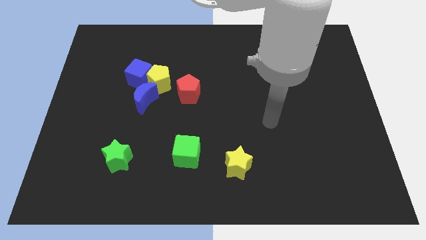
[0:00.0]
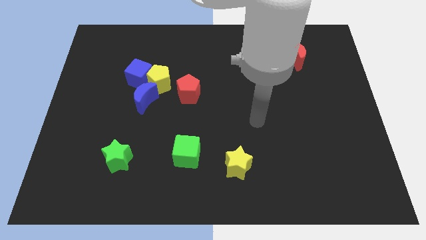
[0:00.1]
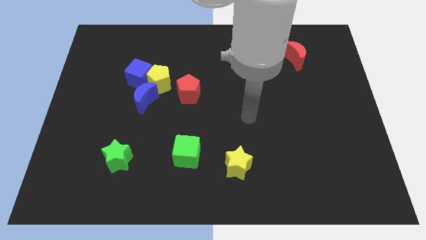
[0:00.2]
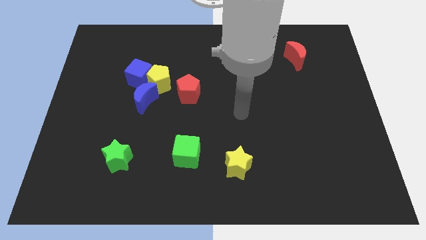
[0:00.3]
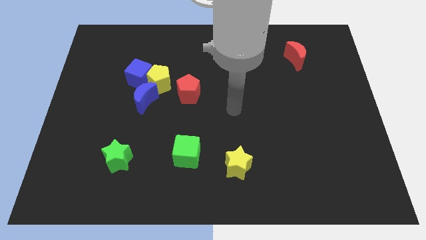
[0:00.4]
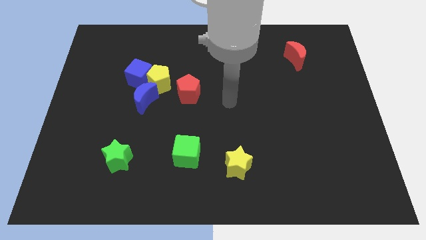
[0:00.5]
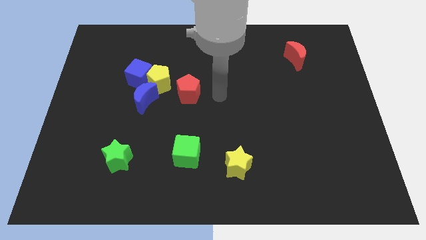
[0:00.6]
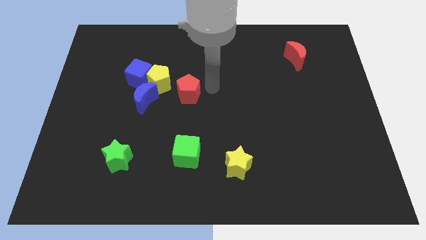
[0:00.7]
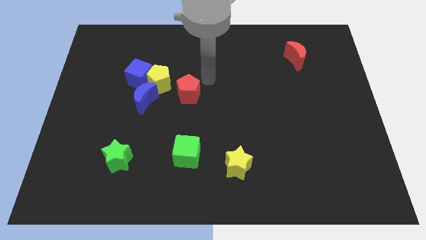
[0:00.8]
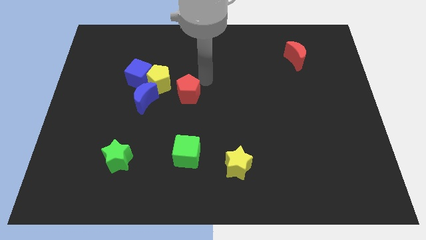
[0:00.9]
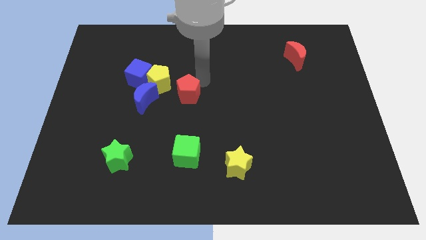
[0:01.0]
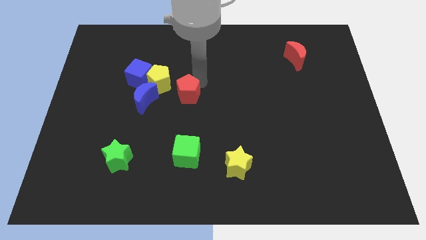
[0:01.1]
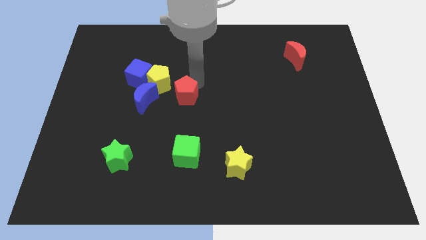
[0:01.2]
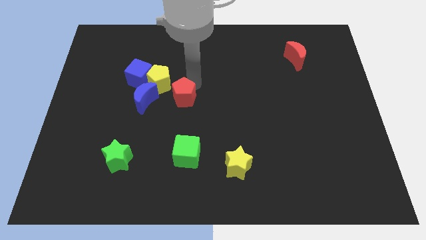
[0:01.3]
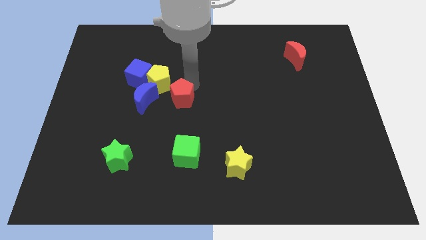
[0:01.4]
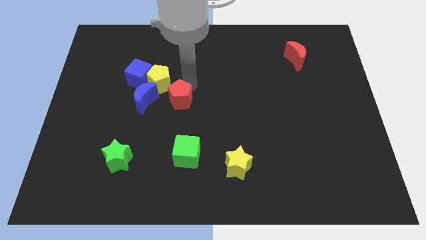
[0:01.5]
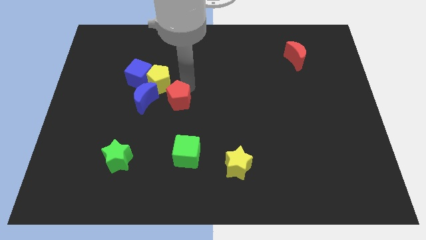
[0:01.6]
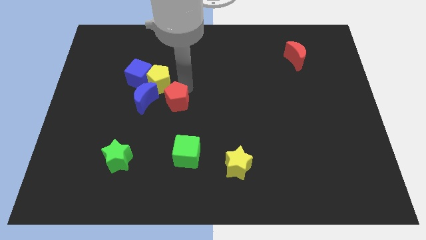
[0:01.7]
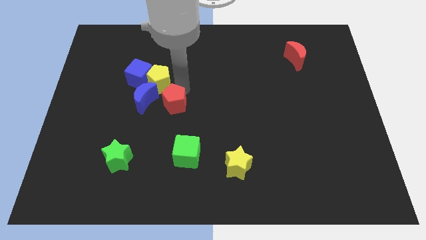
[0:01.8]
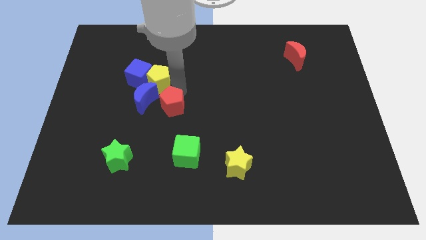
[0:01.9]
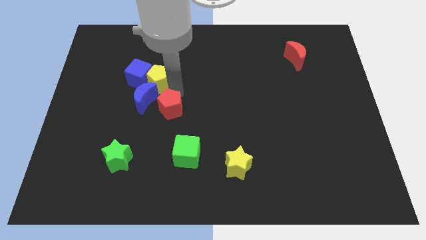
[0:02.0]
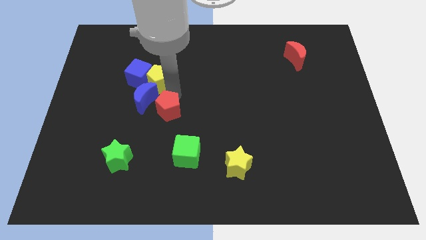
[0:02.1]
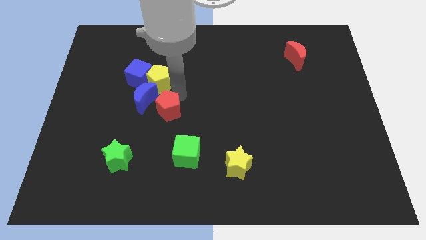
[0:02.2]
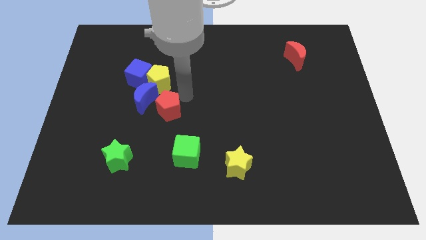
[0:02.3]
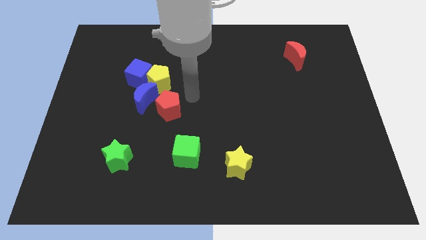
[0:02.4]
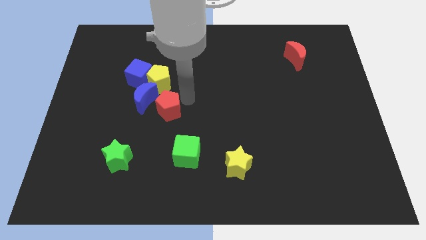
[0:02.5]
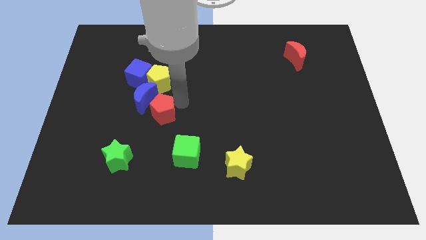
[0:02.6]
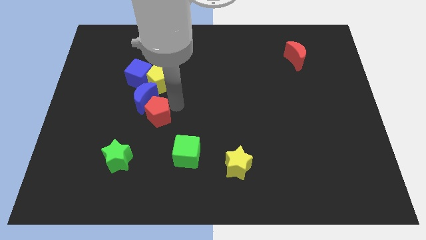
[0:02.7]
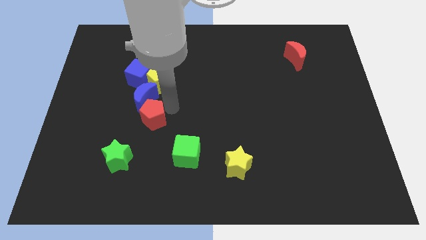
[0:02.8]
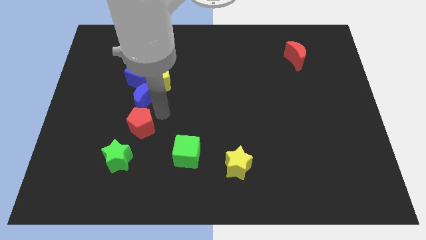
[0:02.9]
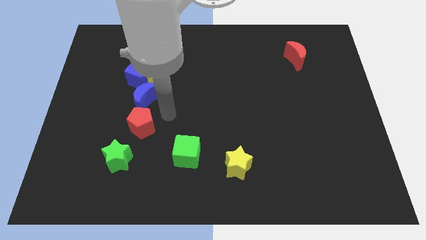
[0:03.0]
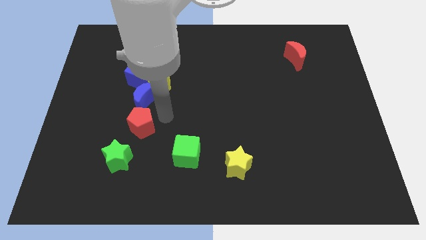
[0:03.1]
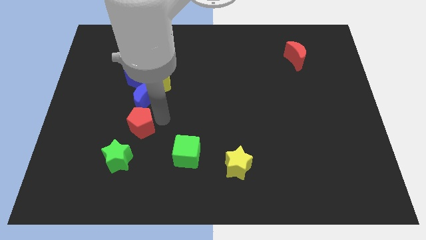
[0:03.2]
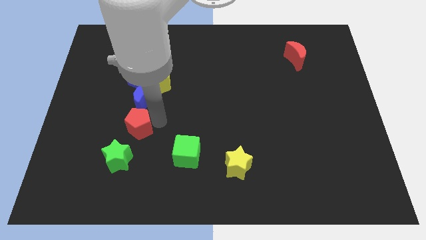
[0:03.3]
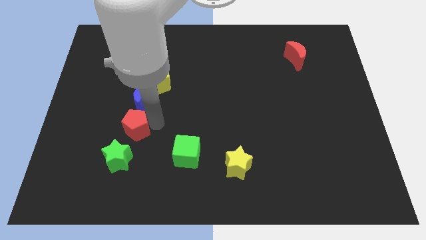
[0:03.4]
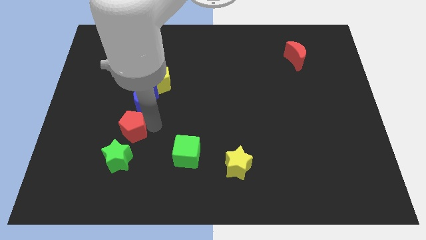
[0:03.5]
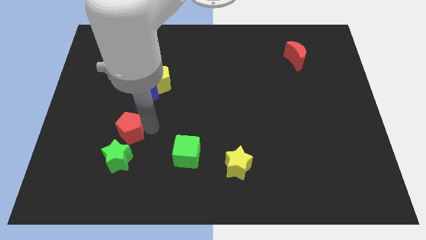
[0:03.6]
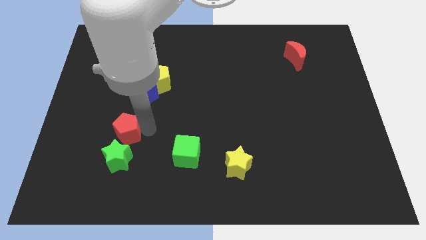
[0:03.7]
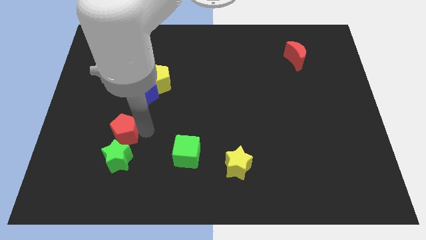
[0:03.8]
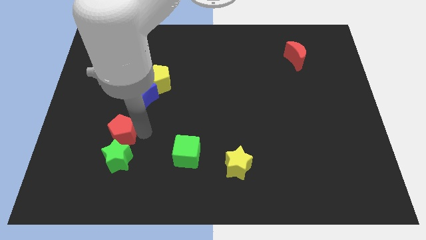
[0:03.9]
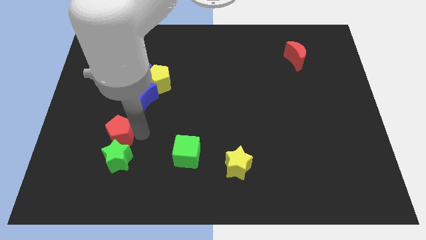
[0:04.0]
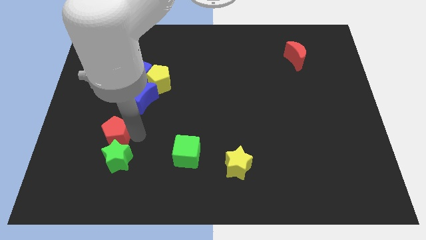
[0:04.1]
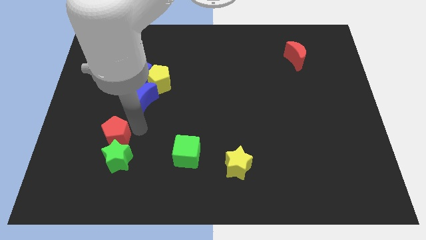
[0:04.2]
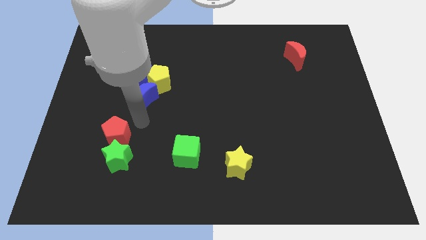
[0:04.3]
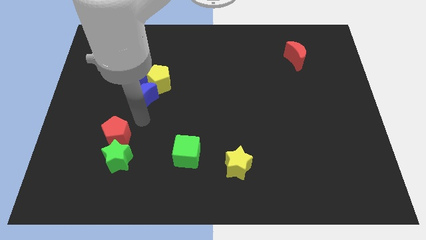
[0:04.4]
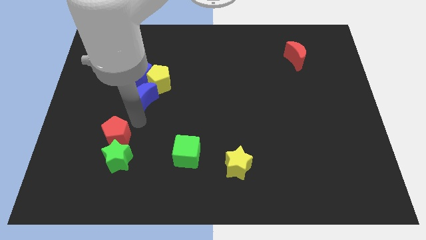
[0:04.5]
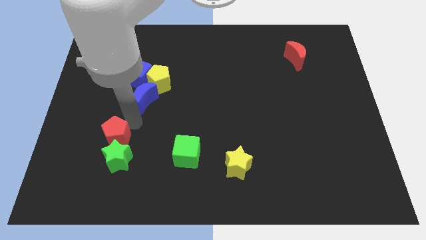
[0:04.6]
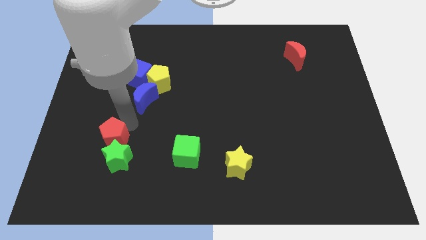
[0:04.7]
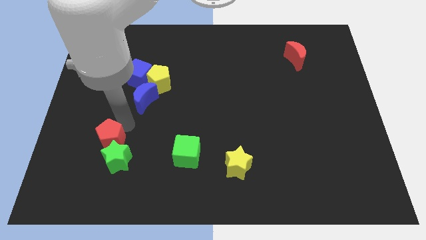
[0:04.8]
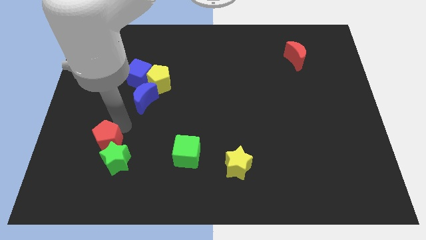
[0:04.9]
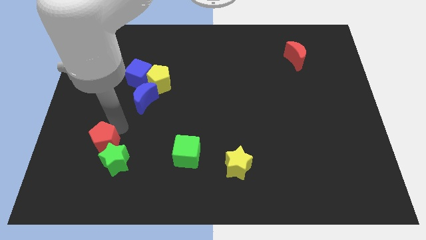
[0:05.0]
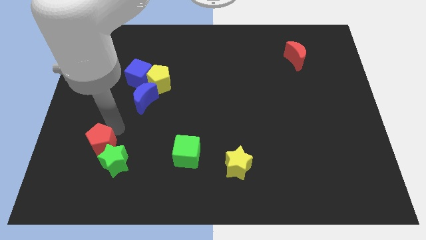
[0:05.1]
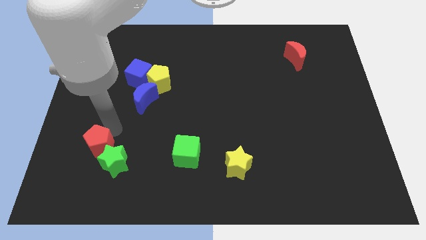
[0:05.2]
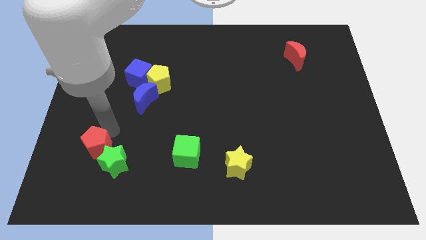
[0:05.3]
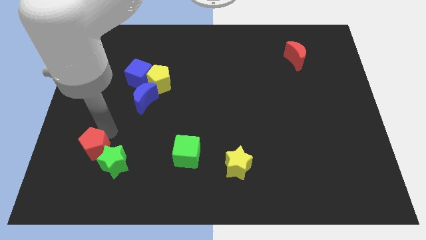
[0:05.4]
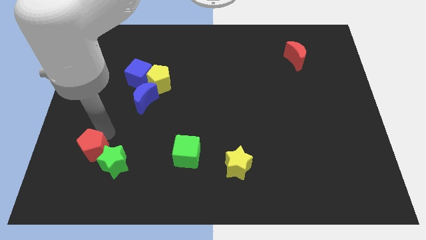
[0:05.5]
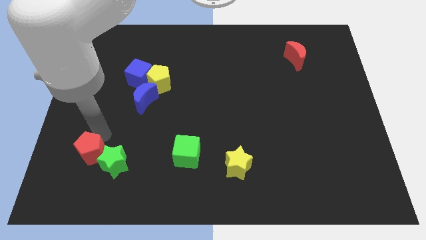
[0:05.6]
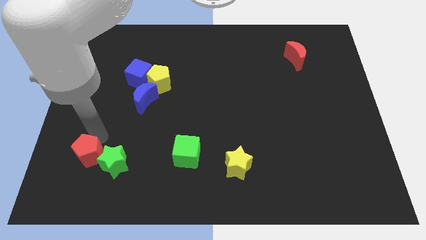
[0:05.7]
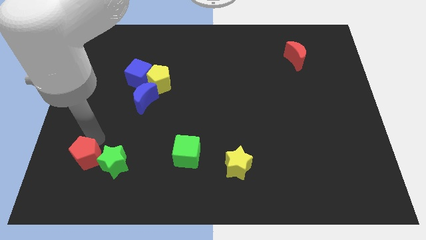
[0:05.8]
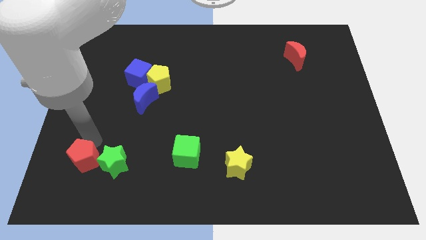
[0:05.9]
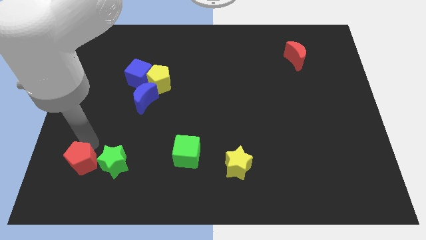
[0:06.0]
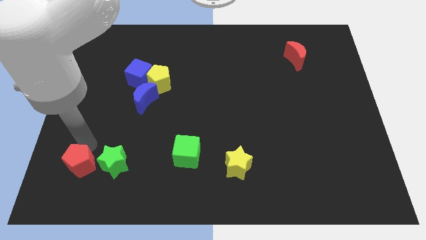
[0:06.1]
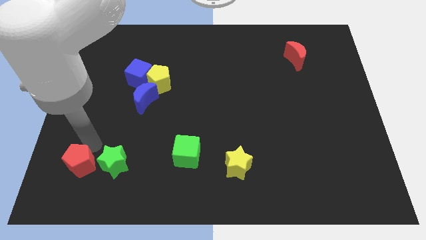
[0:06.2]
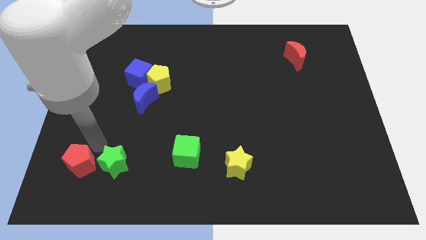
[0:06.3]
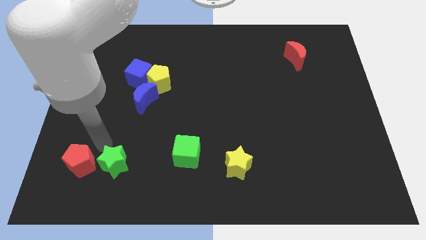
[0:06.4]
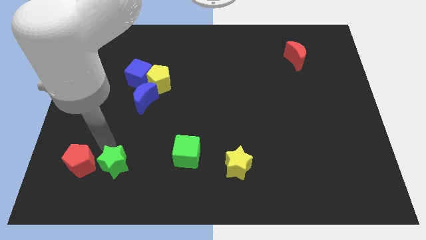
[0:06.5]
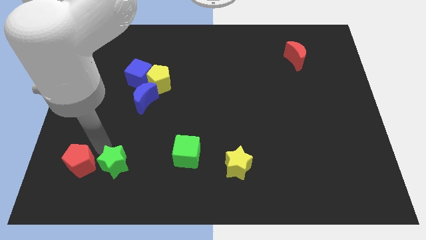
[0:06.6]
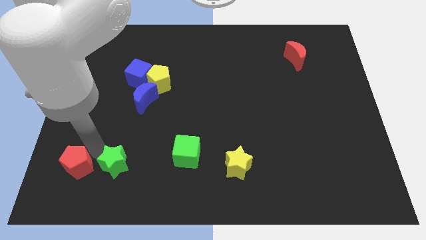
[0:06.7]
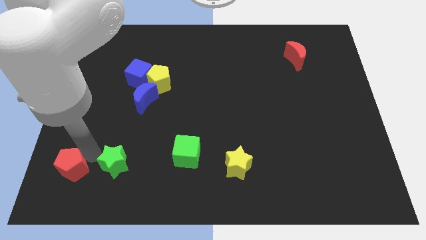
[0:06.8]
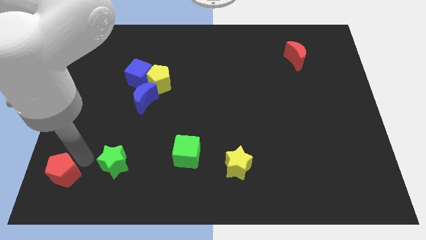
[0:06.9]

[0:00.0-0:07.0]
slide the red pentagon to the bottom left
